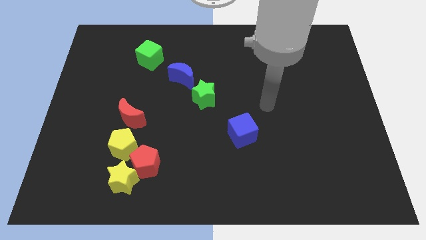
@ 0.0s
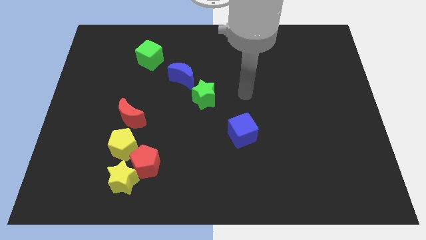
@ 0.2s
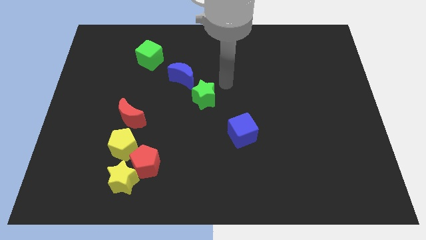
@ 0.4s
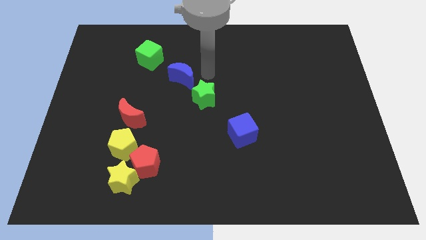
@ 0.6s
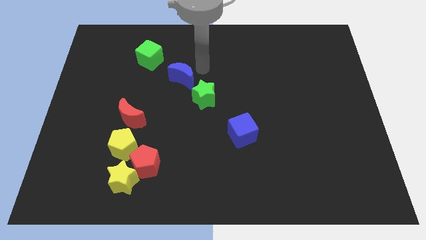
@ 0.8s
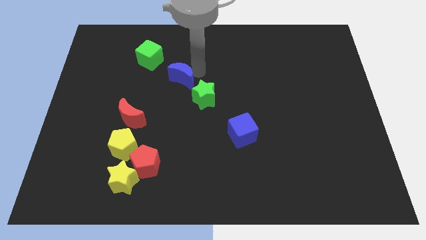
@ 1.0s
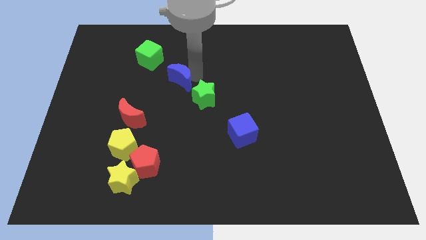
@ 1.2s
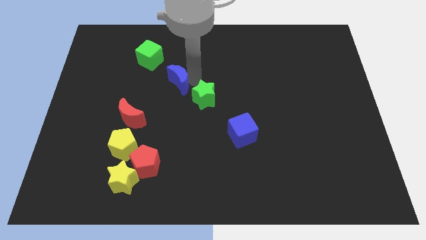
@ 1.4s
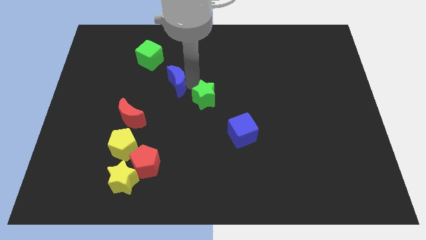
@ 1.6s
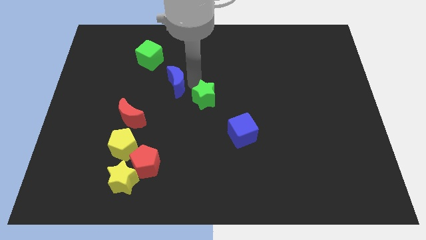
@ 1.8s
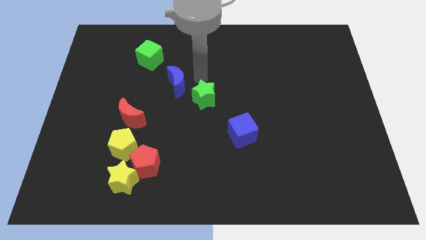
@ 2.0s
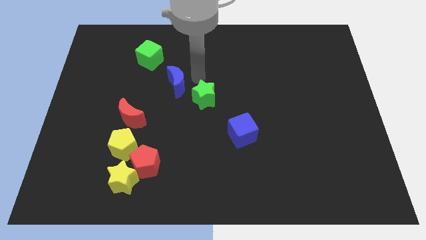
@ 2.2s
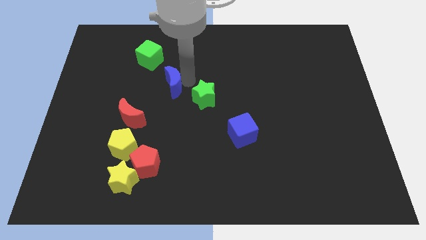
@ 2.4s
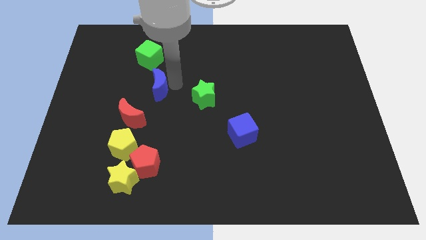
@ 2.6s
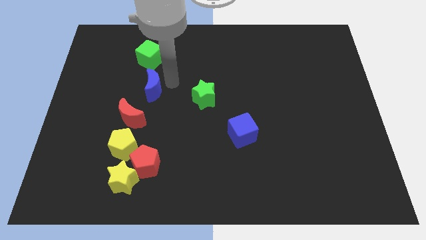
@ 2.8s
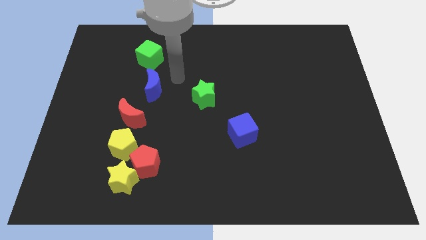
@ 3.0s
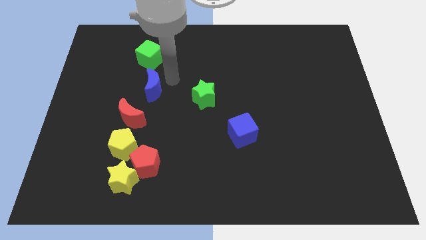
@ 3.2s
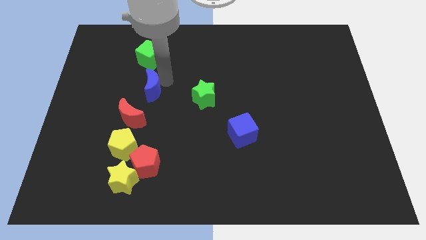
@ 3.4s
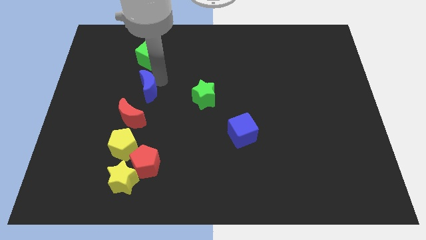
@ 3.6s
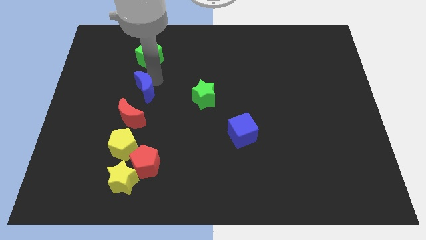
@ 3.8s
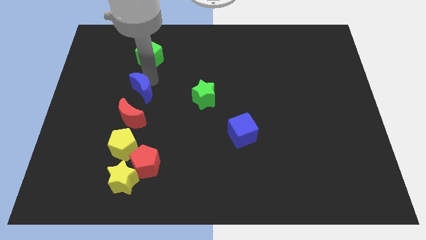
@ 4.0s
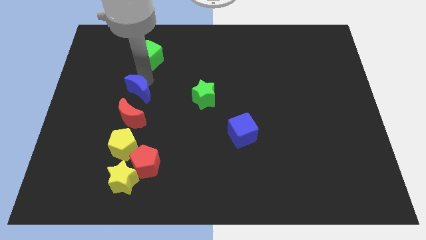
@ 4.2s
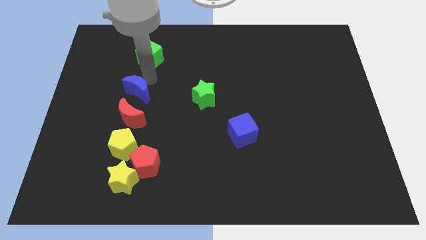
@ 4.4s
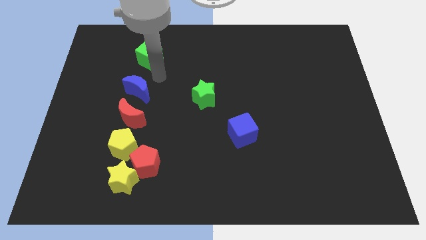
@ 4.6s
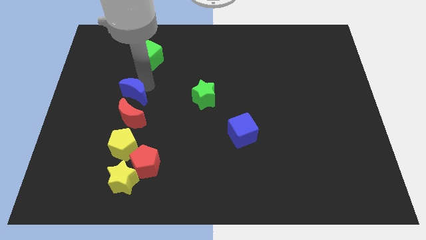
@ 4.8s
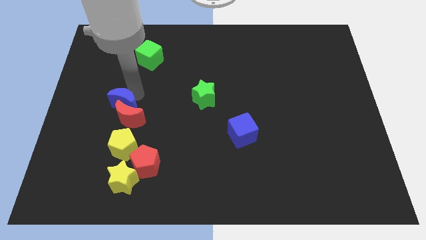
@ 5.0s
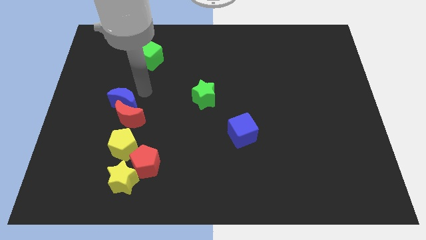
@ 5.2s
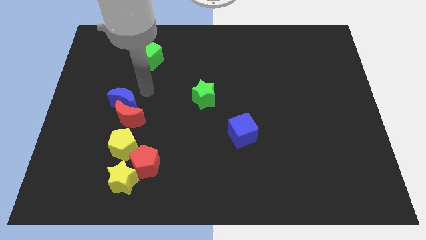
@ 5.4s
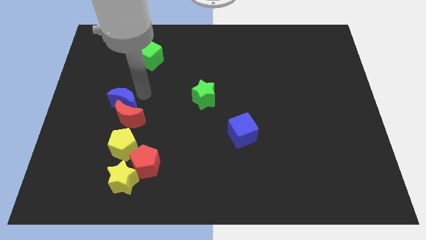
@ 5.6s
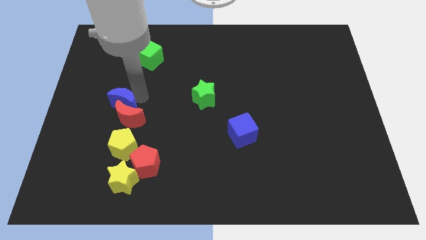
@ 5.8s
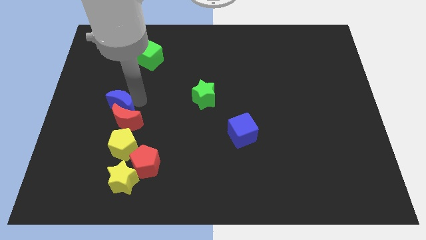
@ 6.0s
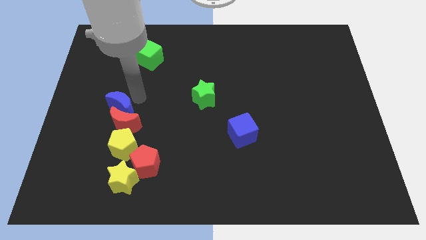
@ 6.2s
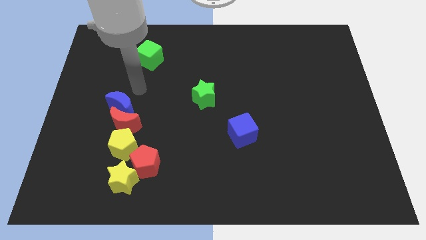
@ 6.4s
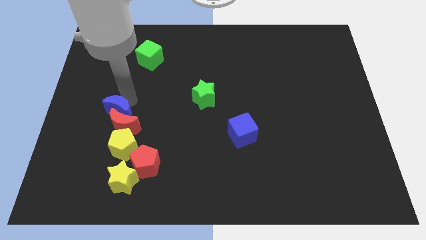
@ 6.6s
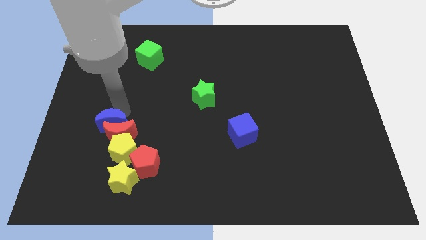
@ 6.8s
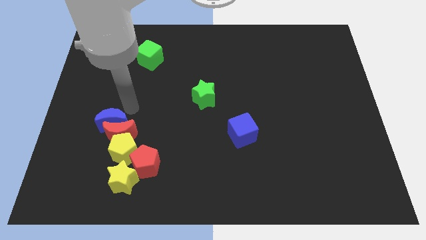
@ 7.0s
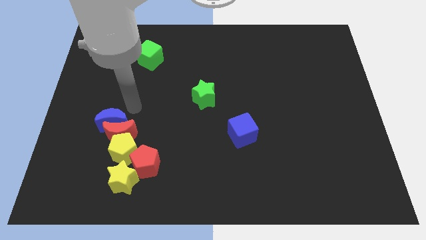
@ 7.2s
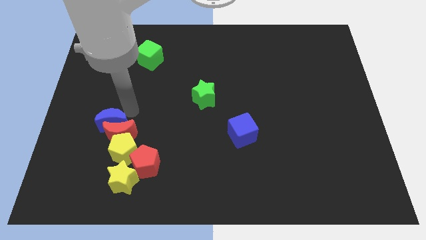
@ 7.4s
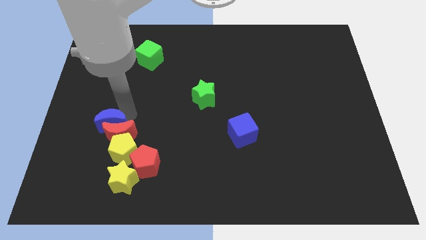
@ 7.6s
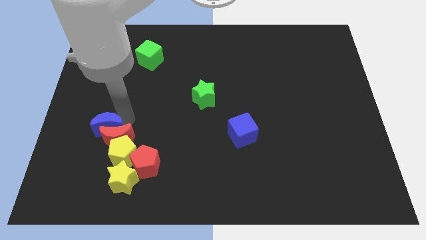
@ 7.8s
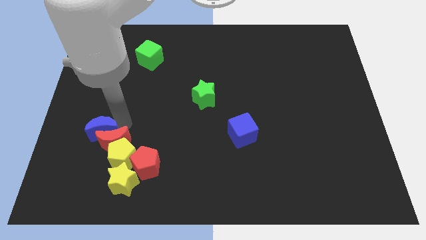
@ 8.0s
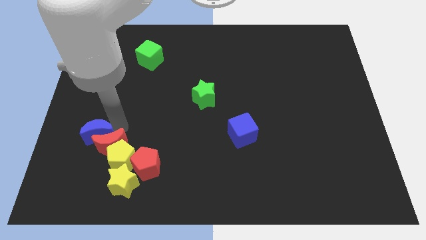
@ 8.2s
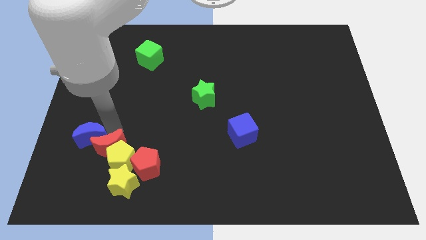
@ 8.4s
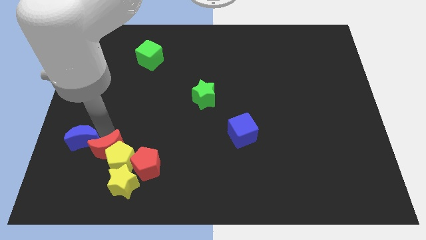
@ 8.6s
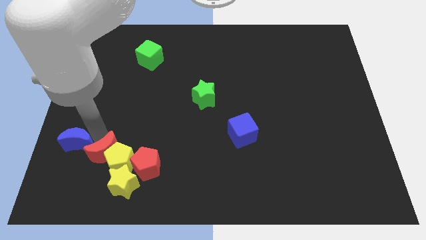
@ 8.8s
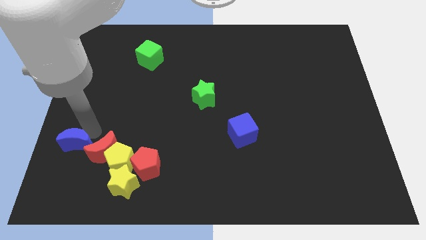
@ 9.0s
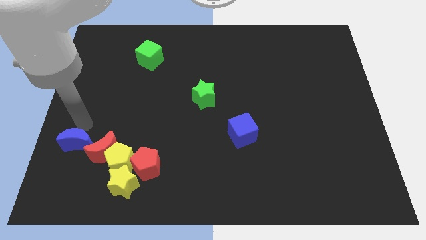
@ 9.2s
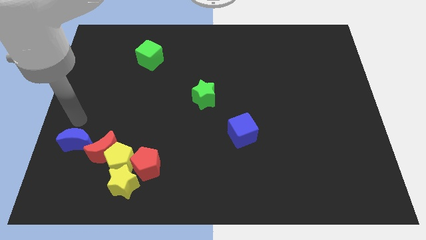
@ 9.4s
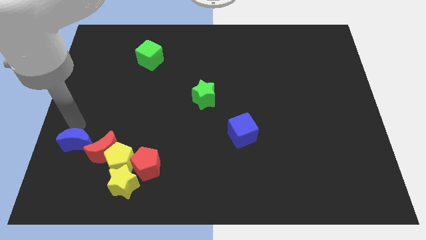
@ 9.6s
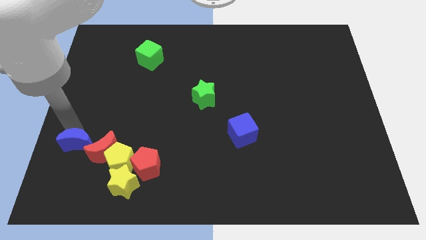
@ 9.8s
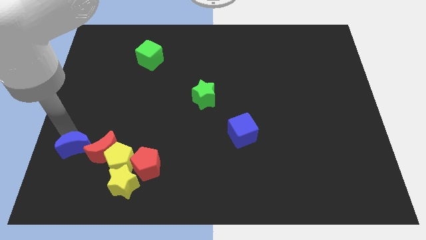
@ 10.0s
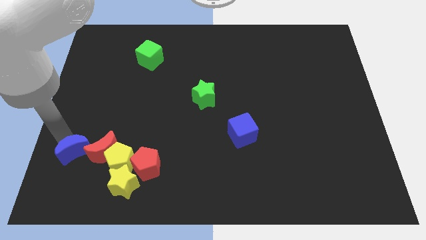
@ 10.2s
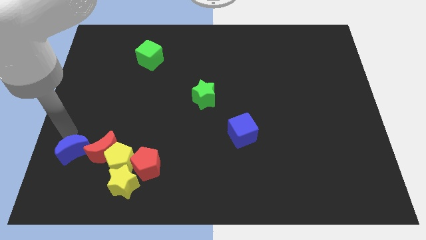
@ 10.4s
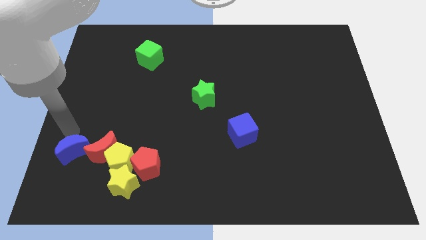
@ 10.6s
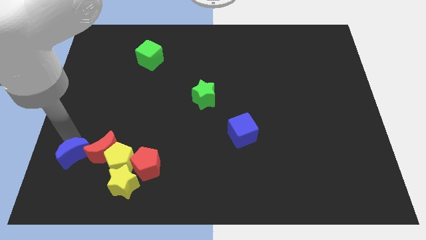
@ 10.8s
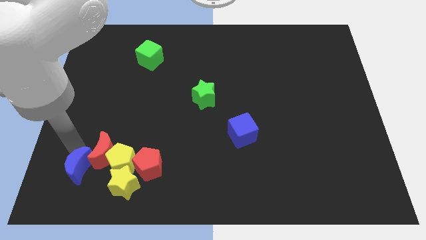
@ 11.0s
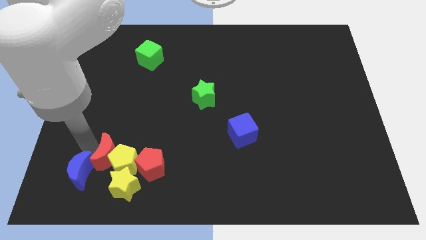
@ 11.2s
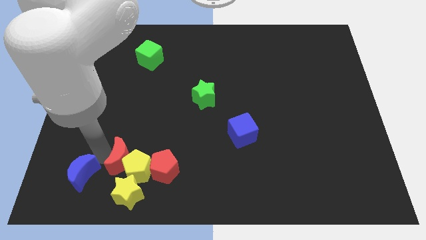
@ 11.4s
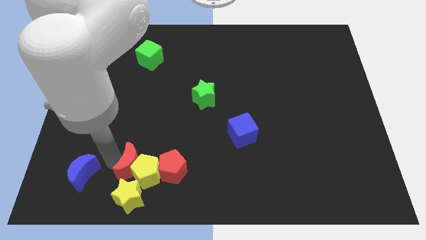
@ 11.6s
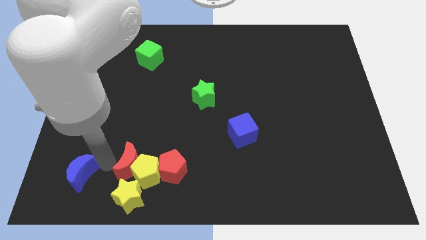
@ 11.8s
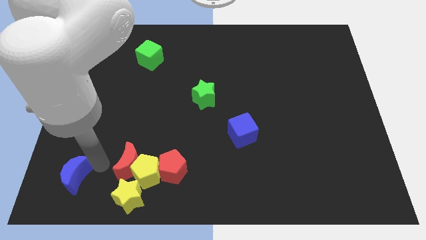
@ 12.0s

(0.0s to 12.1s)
put the blue moon to the lower left corner

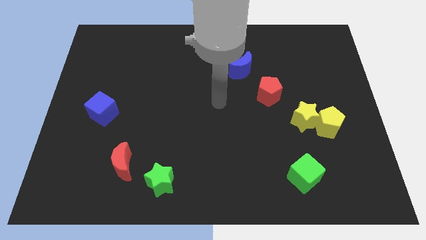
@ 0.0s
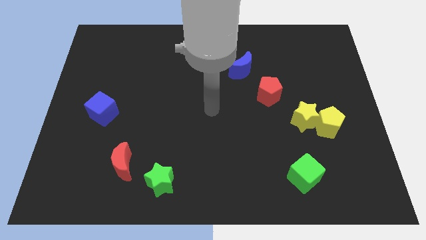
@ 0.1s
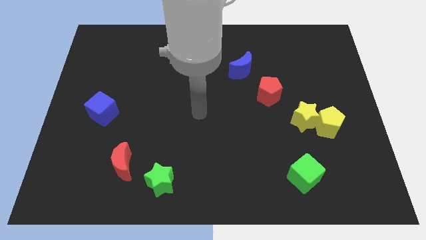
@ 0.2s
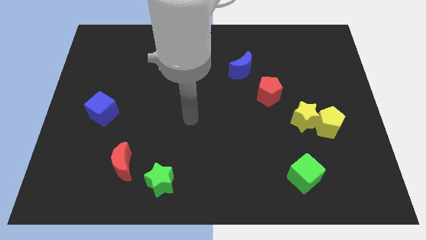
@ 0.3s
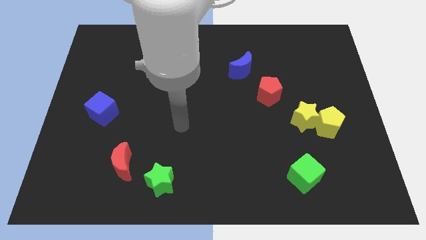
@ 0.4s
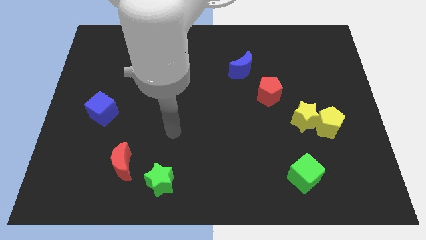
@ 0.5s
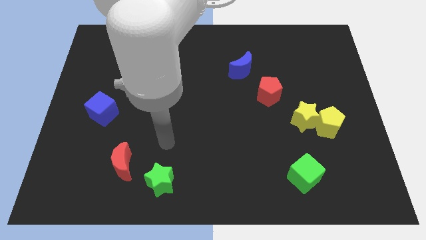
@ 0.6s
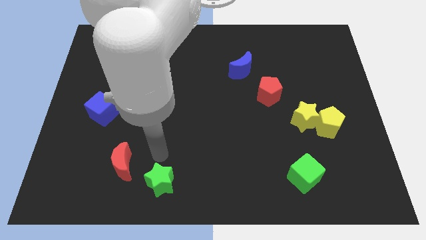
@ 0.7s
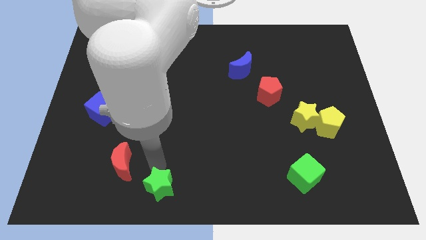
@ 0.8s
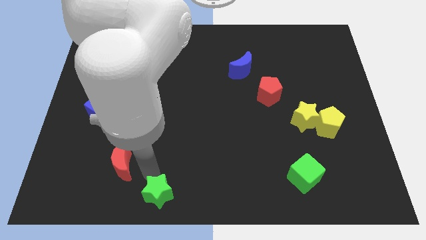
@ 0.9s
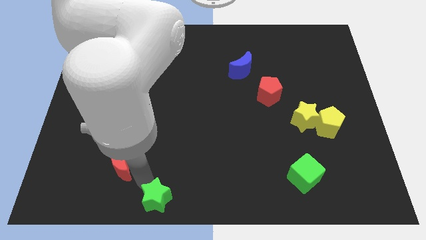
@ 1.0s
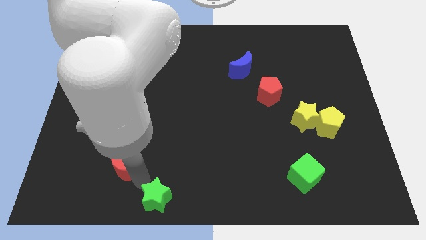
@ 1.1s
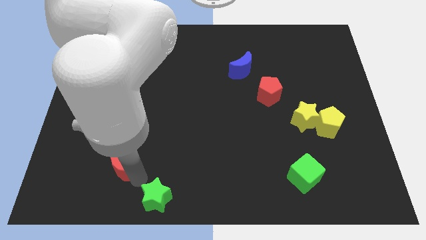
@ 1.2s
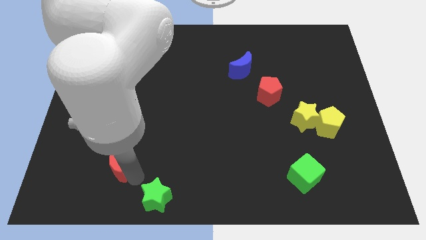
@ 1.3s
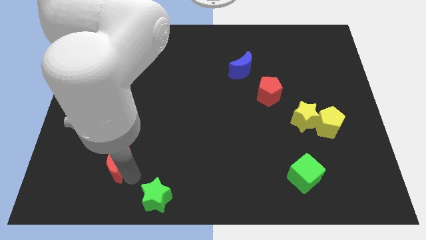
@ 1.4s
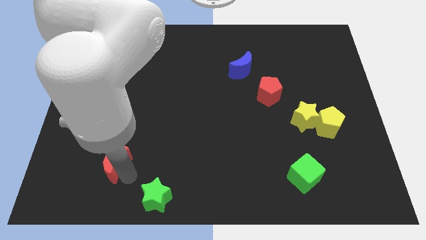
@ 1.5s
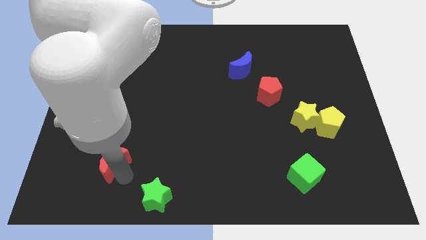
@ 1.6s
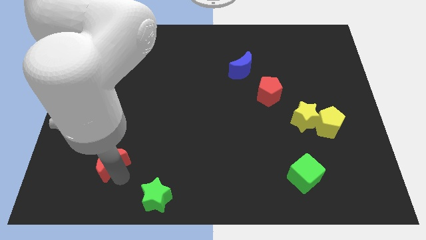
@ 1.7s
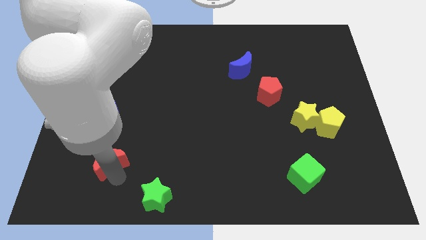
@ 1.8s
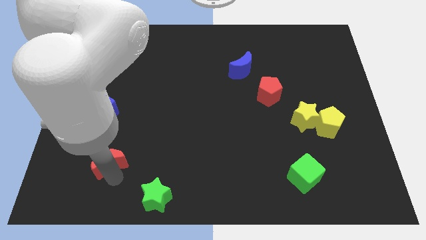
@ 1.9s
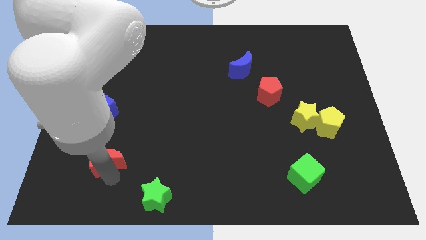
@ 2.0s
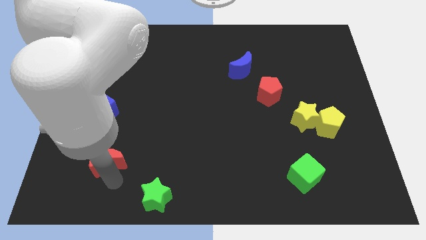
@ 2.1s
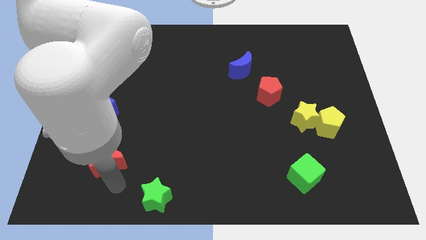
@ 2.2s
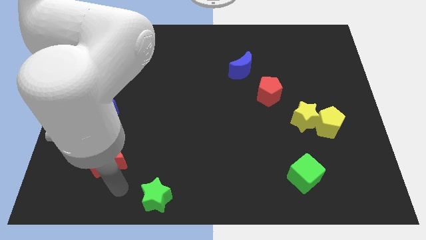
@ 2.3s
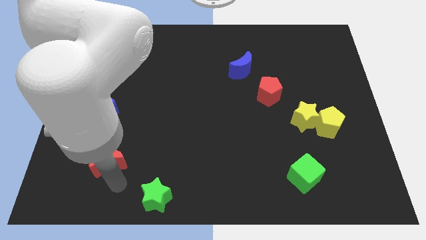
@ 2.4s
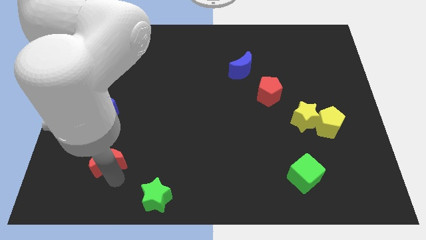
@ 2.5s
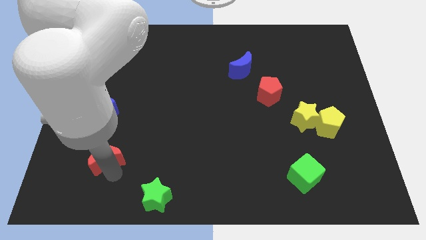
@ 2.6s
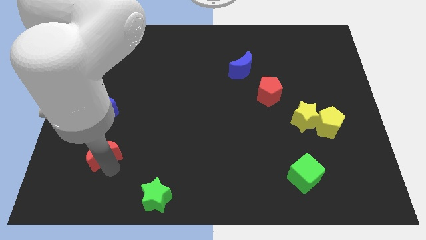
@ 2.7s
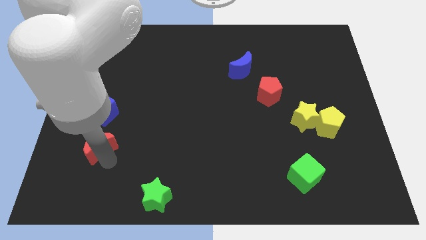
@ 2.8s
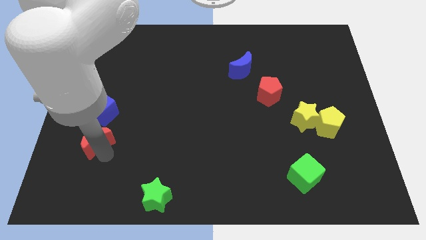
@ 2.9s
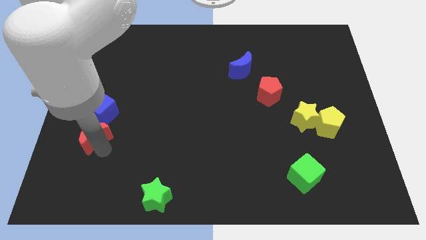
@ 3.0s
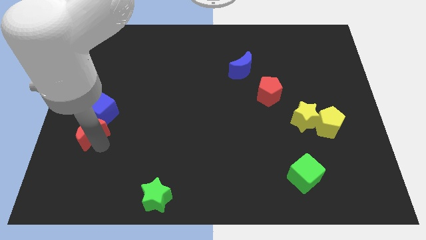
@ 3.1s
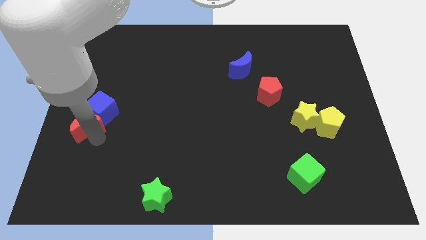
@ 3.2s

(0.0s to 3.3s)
slide the red moon to the left side
